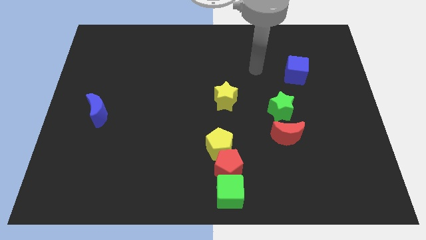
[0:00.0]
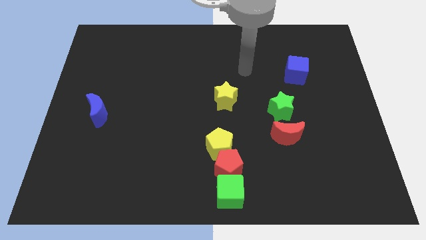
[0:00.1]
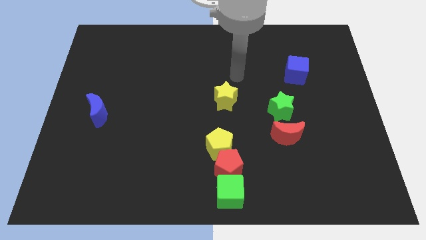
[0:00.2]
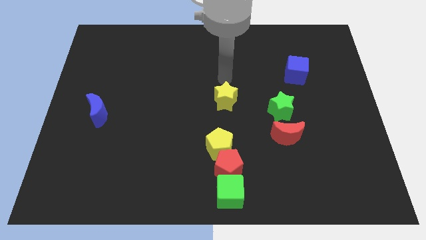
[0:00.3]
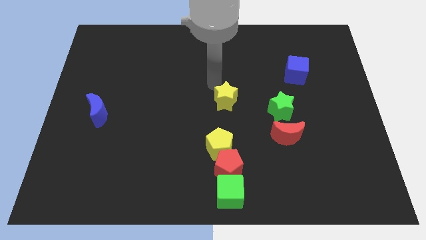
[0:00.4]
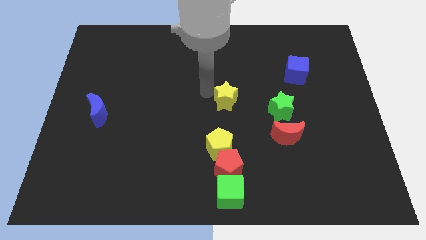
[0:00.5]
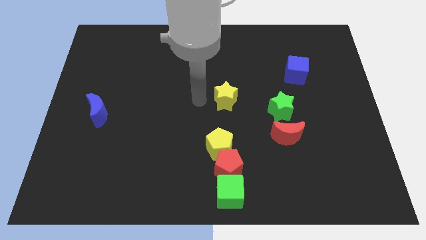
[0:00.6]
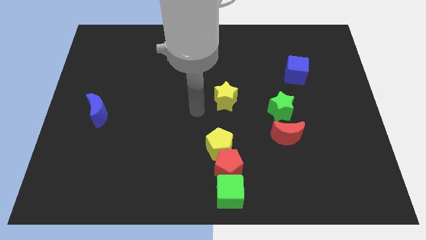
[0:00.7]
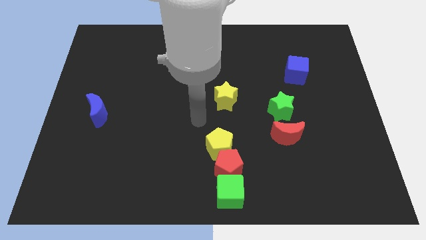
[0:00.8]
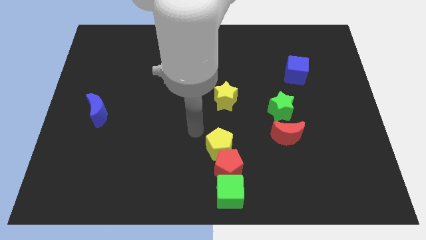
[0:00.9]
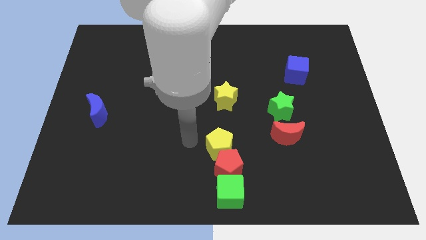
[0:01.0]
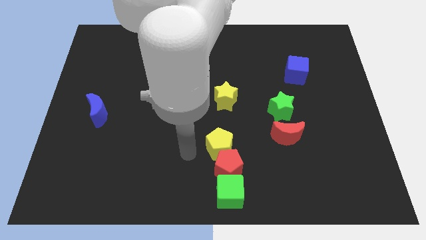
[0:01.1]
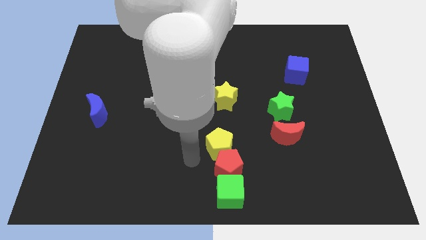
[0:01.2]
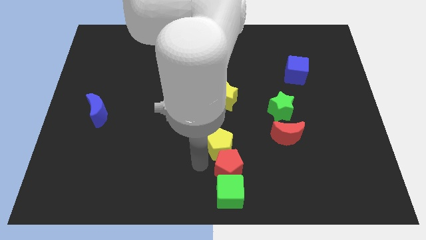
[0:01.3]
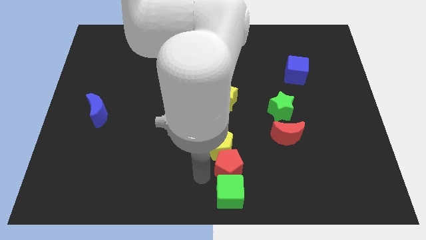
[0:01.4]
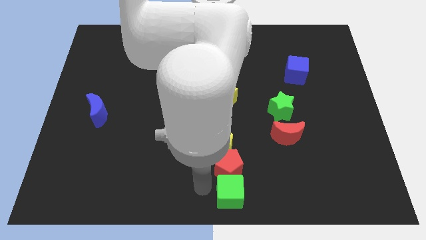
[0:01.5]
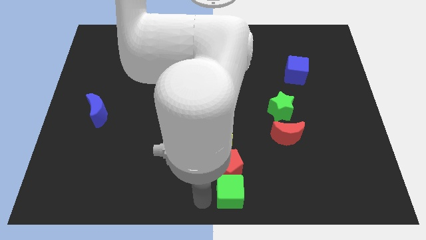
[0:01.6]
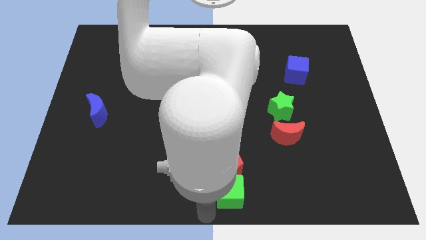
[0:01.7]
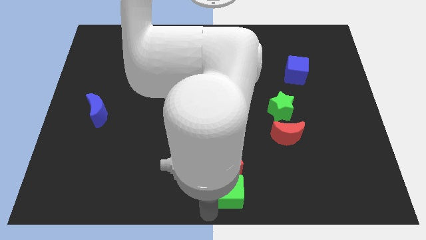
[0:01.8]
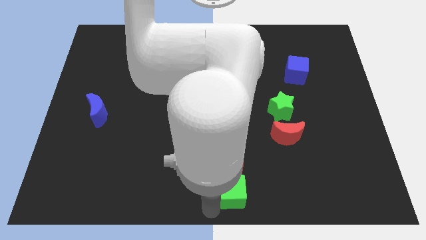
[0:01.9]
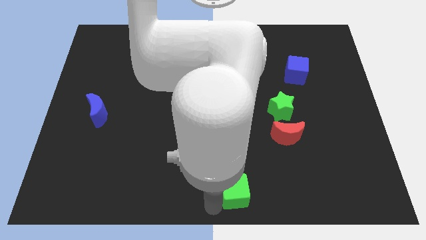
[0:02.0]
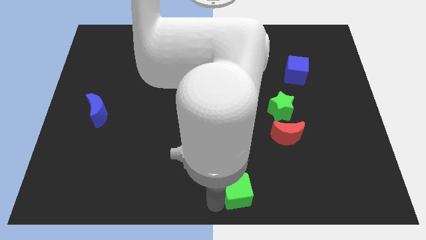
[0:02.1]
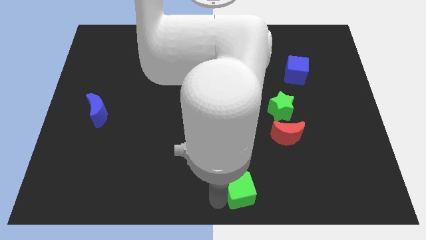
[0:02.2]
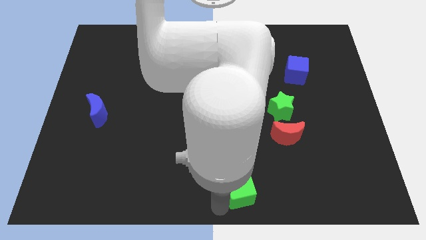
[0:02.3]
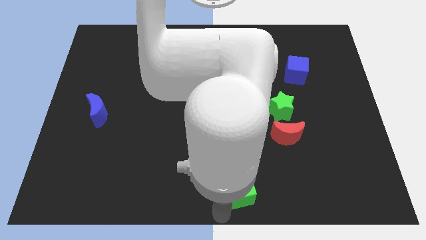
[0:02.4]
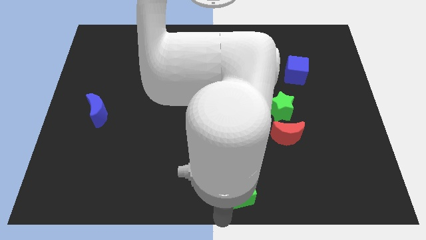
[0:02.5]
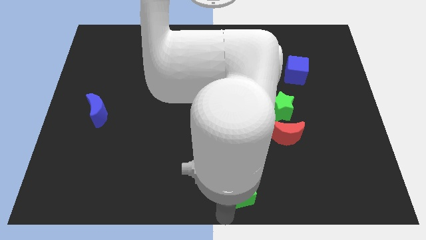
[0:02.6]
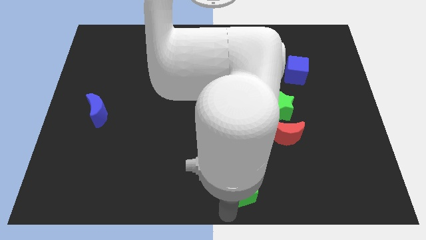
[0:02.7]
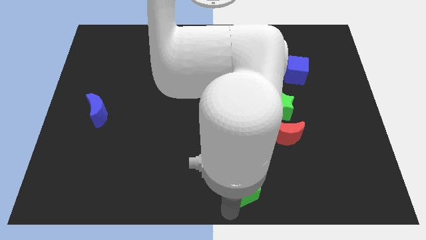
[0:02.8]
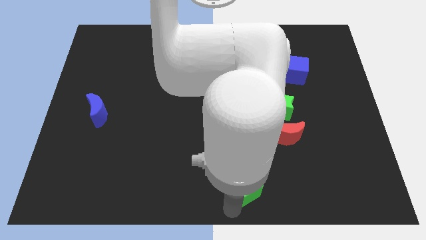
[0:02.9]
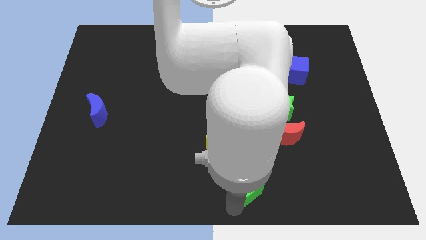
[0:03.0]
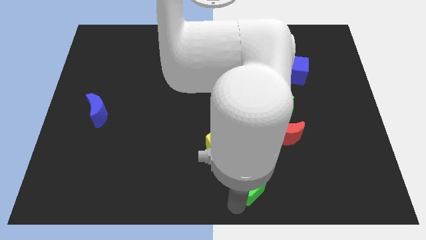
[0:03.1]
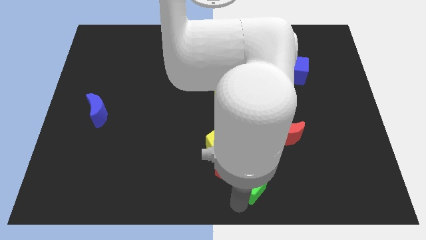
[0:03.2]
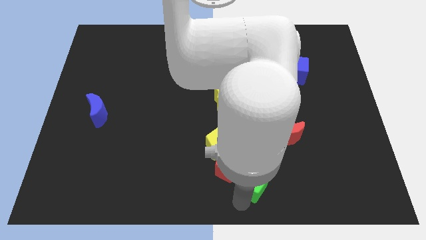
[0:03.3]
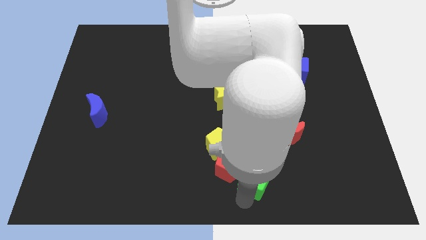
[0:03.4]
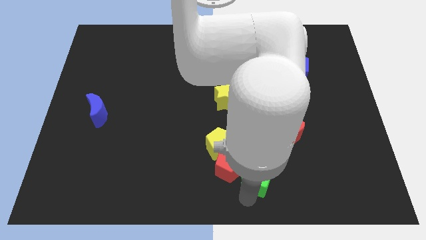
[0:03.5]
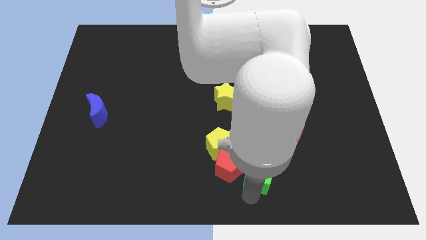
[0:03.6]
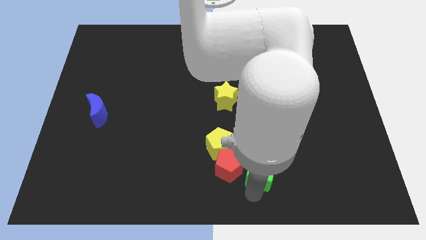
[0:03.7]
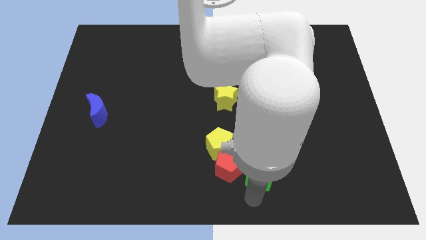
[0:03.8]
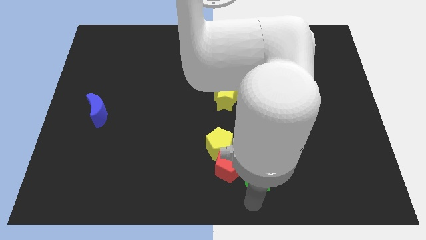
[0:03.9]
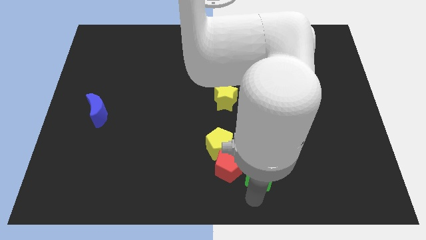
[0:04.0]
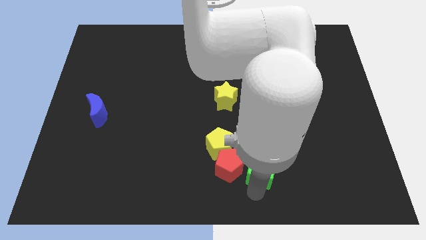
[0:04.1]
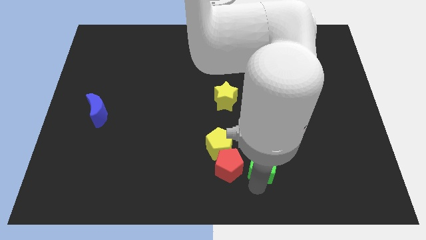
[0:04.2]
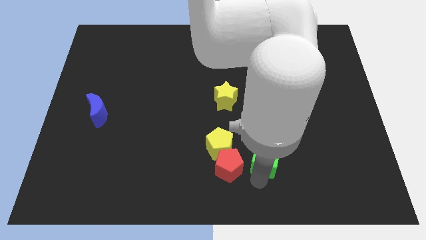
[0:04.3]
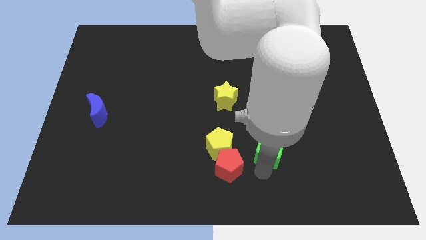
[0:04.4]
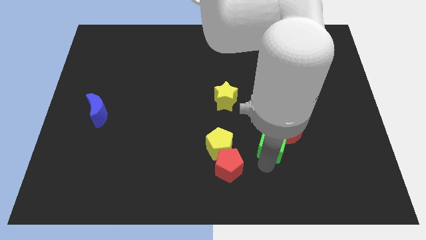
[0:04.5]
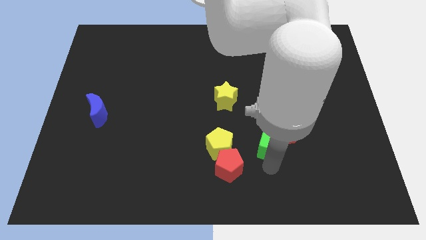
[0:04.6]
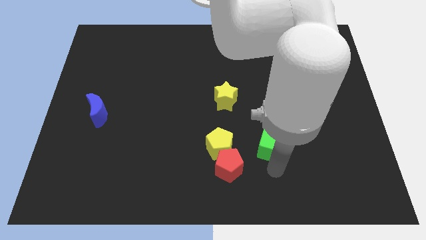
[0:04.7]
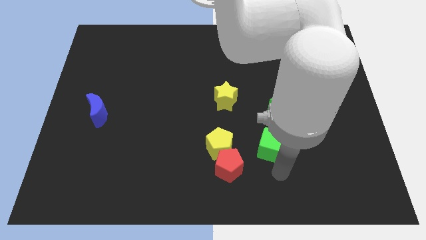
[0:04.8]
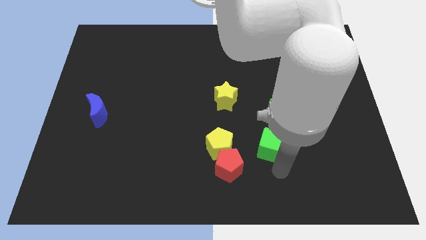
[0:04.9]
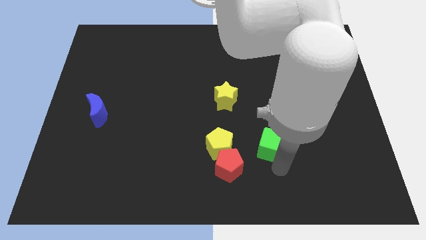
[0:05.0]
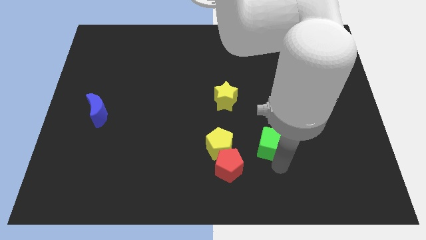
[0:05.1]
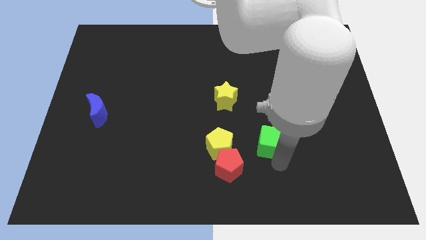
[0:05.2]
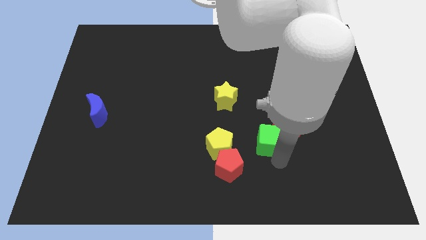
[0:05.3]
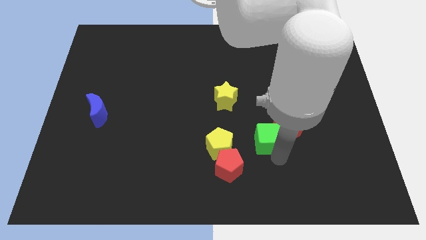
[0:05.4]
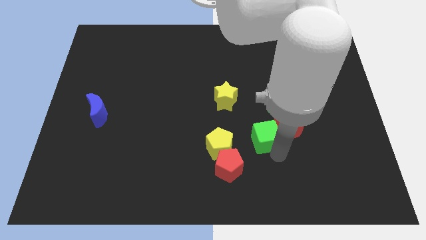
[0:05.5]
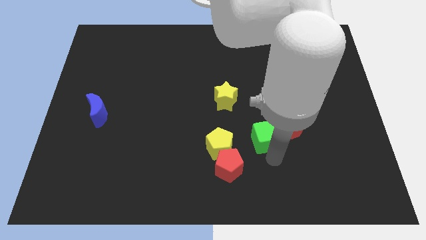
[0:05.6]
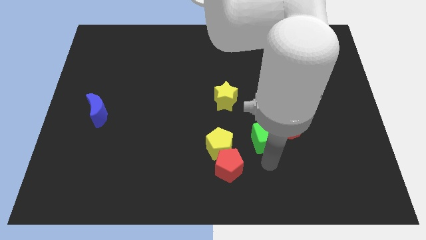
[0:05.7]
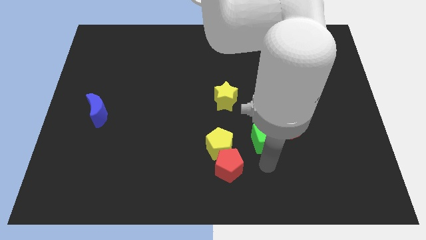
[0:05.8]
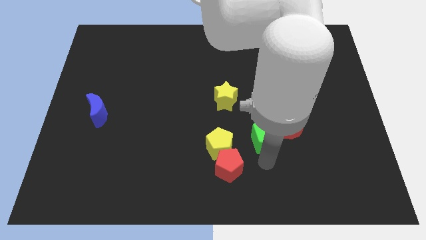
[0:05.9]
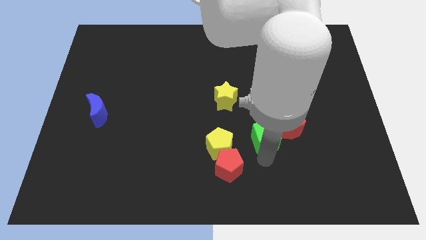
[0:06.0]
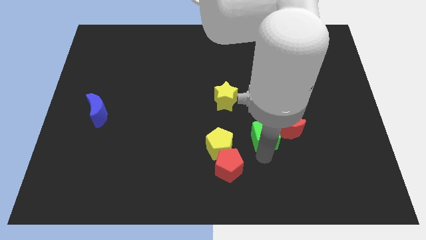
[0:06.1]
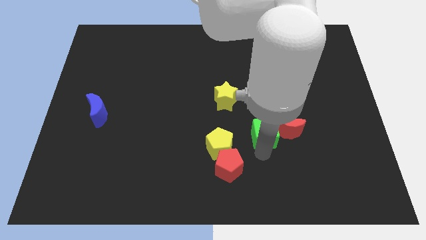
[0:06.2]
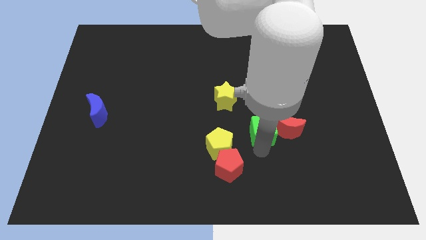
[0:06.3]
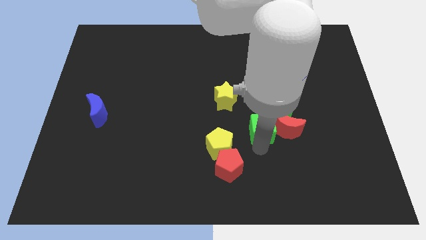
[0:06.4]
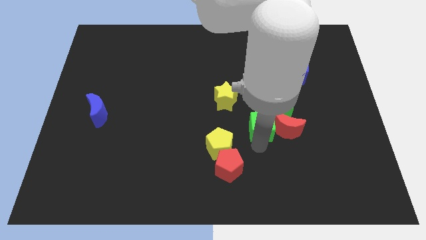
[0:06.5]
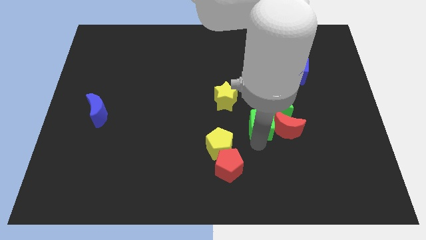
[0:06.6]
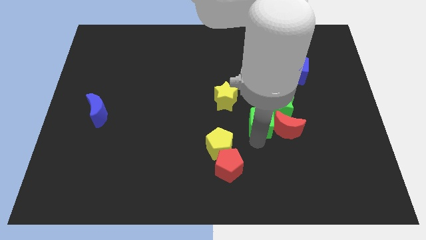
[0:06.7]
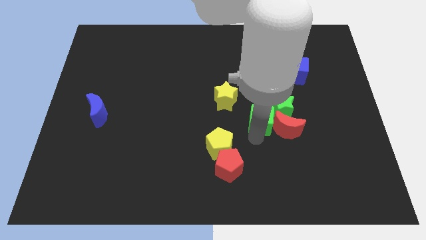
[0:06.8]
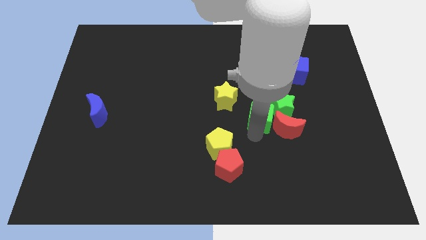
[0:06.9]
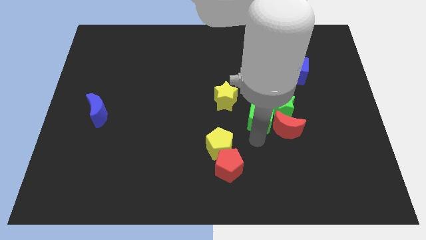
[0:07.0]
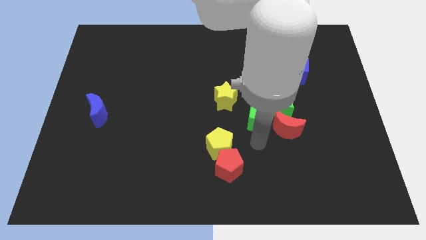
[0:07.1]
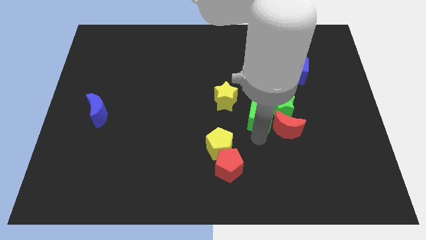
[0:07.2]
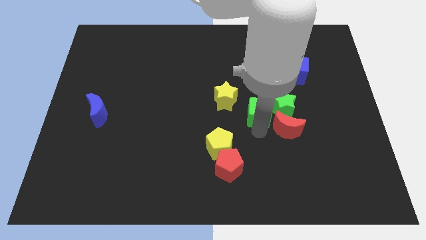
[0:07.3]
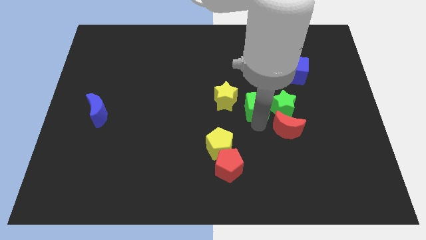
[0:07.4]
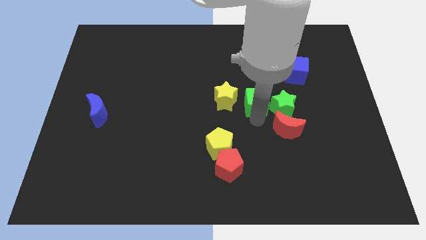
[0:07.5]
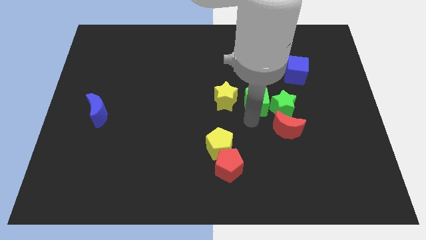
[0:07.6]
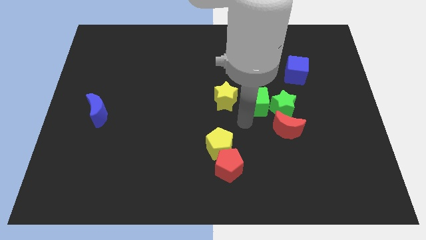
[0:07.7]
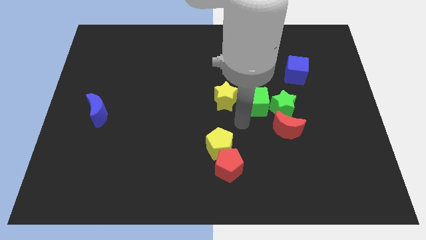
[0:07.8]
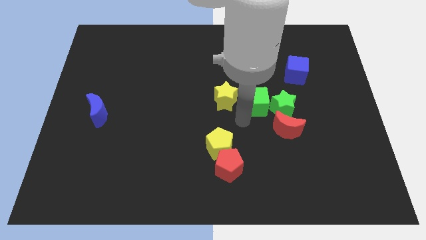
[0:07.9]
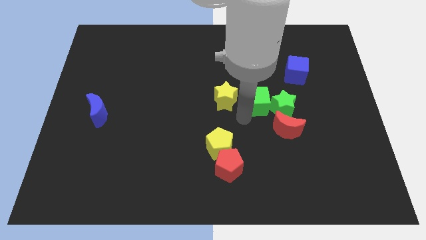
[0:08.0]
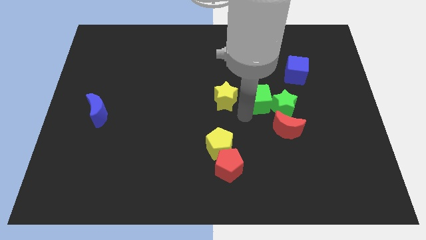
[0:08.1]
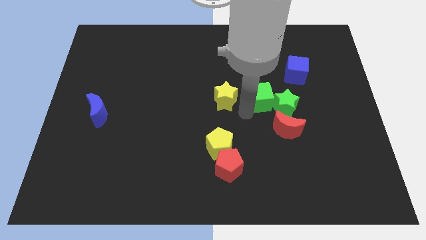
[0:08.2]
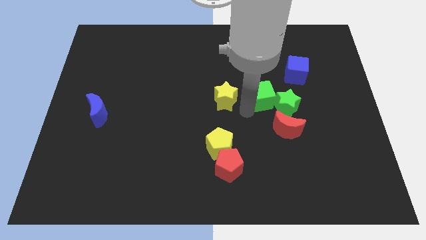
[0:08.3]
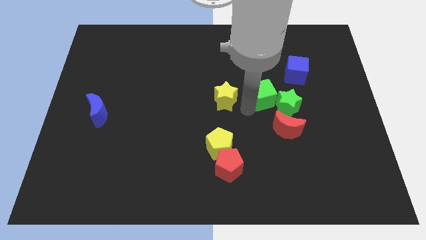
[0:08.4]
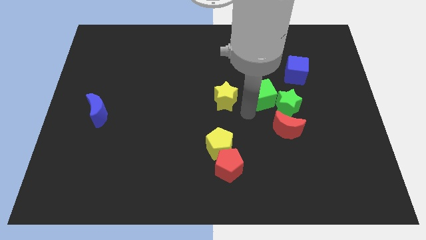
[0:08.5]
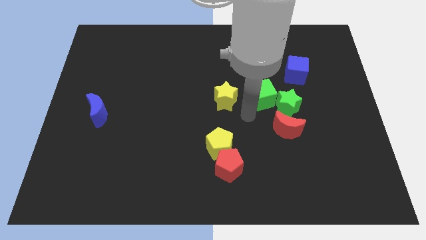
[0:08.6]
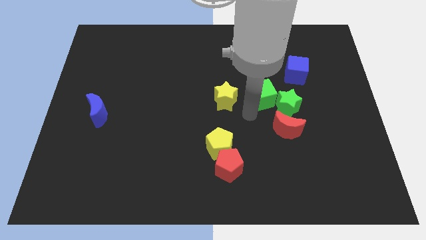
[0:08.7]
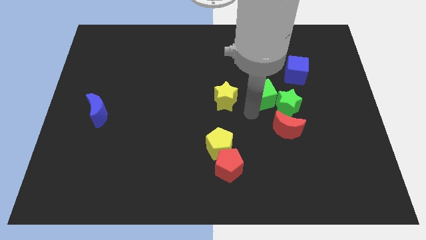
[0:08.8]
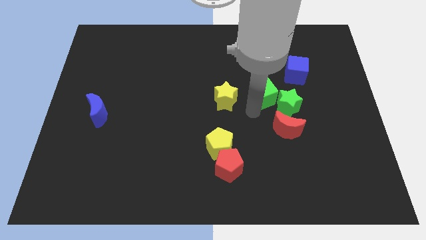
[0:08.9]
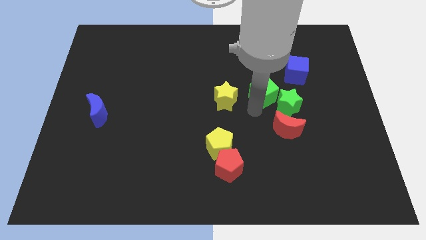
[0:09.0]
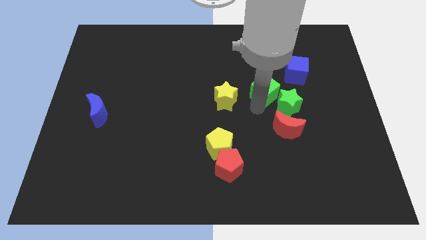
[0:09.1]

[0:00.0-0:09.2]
move the green cube to the top of the green star
